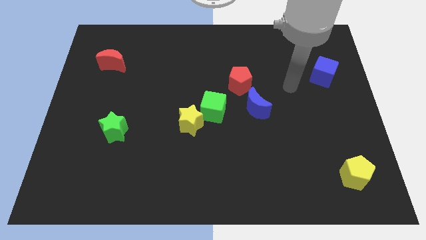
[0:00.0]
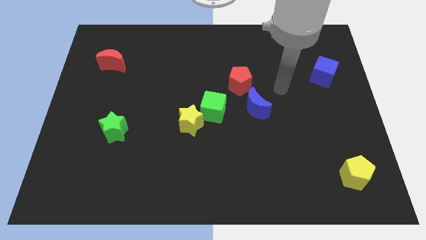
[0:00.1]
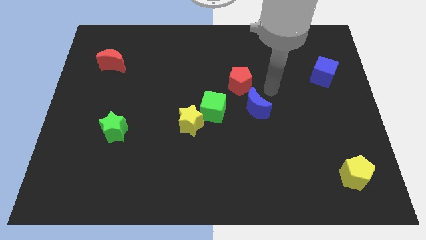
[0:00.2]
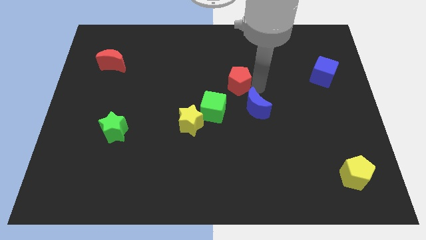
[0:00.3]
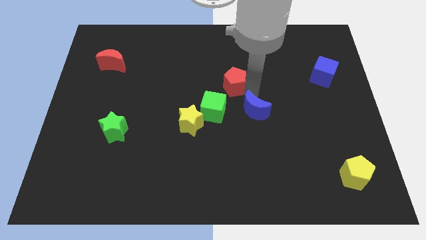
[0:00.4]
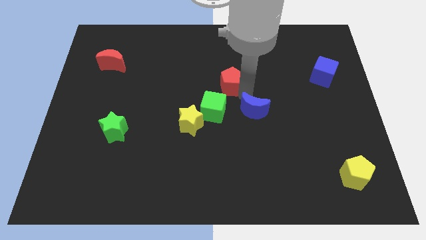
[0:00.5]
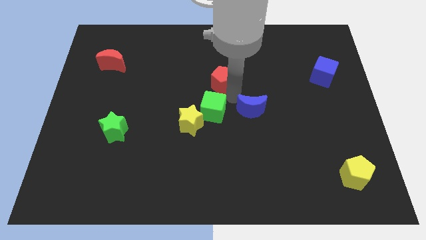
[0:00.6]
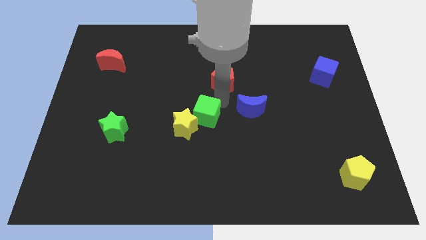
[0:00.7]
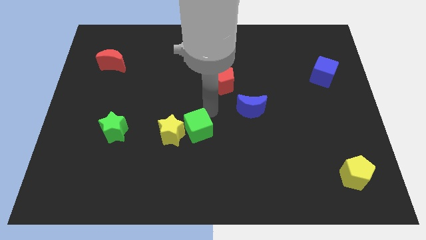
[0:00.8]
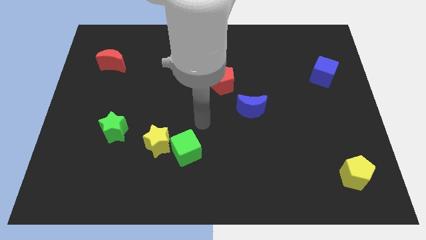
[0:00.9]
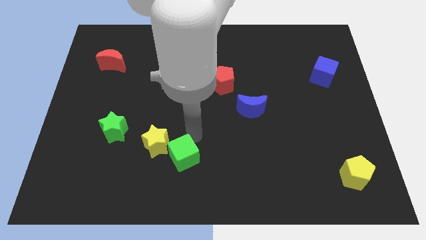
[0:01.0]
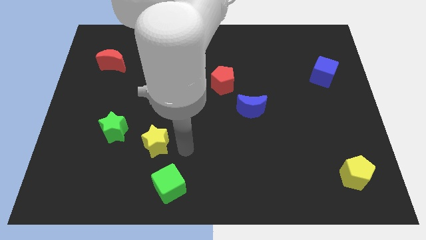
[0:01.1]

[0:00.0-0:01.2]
move the yellow star away from the green cube

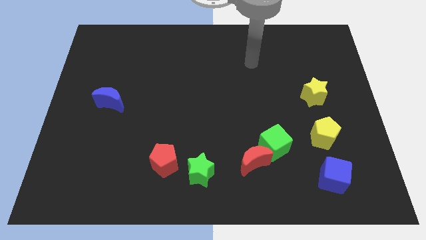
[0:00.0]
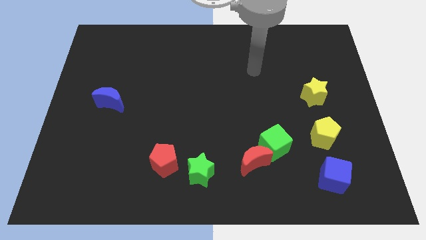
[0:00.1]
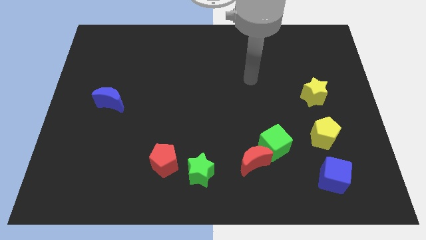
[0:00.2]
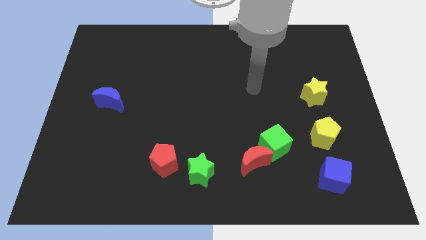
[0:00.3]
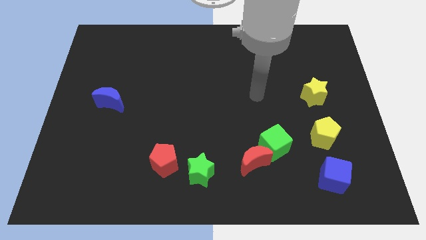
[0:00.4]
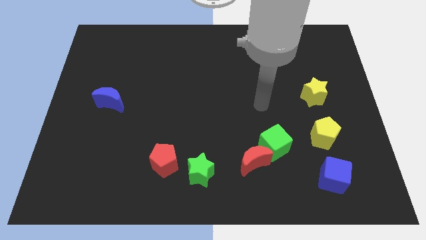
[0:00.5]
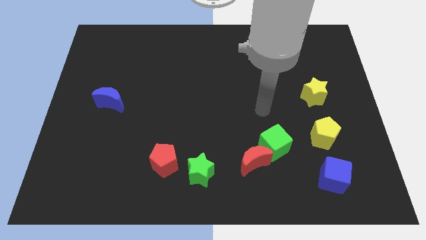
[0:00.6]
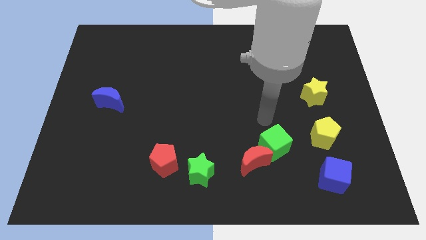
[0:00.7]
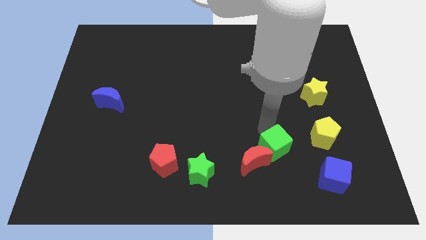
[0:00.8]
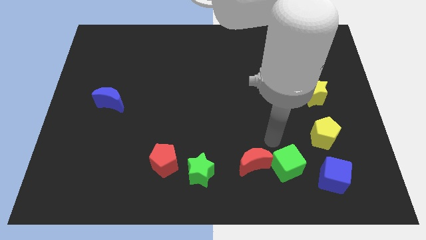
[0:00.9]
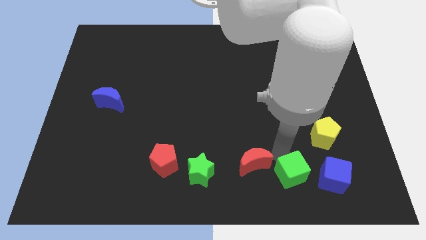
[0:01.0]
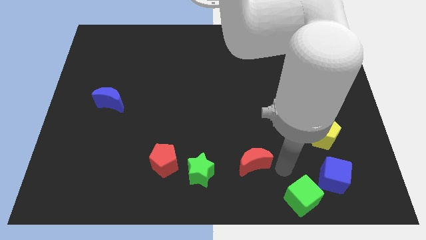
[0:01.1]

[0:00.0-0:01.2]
pull the red moon apart from the green cube

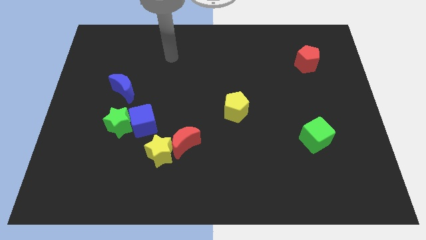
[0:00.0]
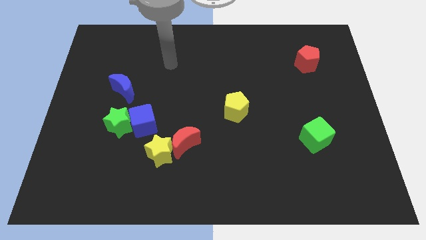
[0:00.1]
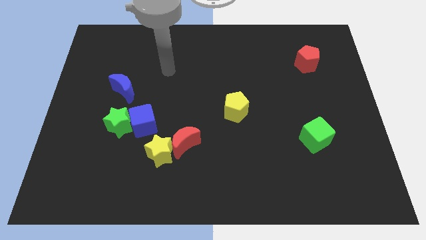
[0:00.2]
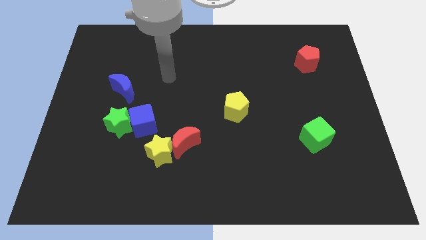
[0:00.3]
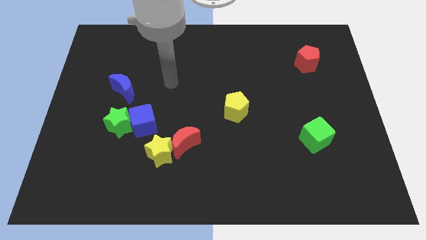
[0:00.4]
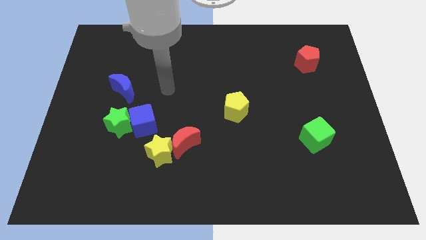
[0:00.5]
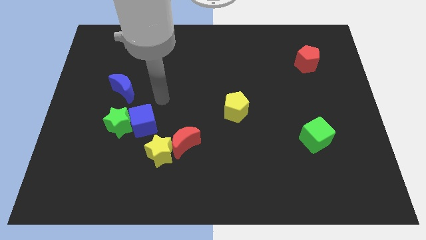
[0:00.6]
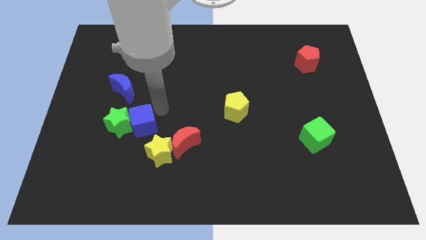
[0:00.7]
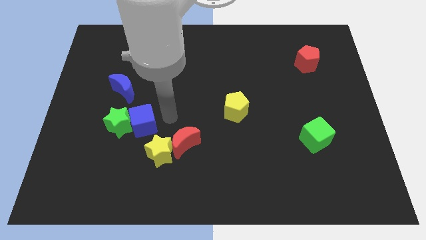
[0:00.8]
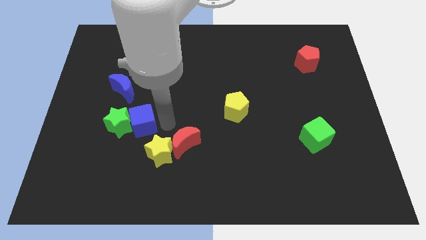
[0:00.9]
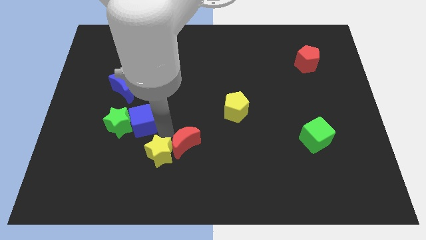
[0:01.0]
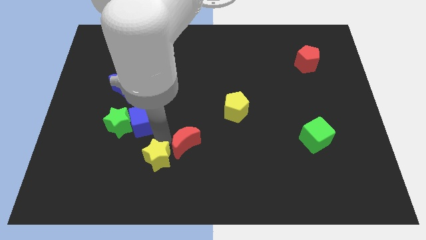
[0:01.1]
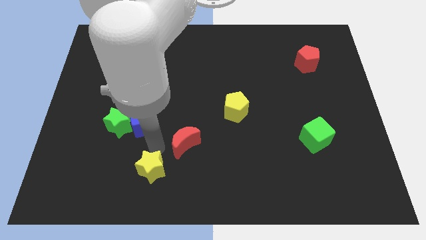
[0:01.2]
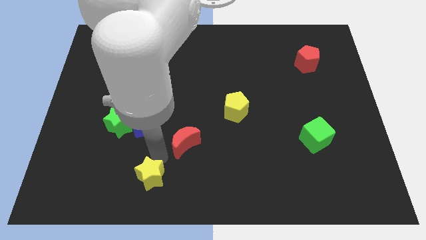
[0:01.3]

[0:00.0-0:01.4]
move the red moon away from the yellow star

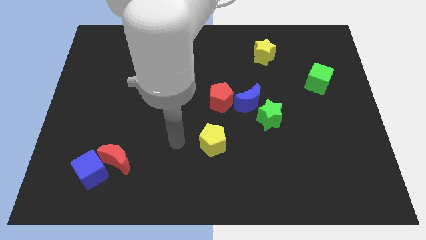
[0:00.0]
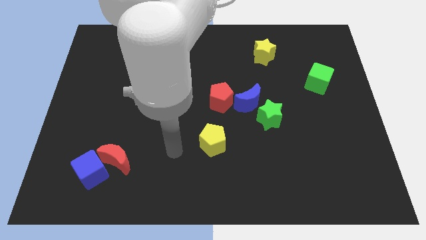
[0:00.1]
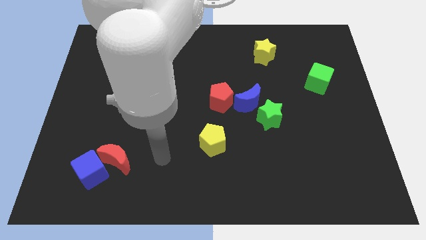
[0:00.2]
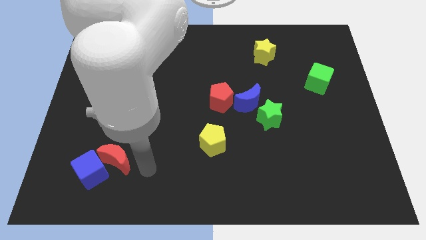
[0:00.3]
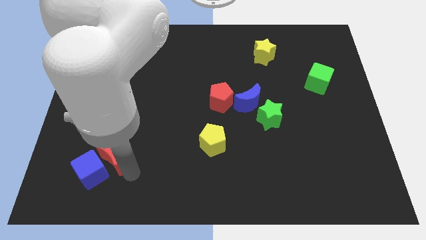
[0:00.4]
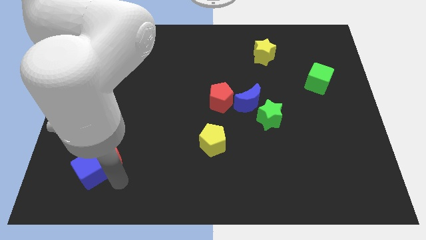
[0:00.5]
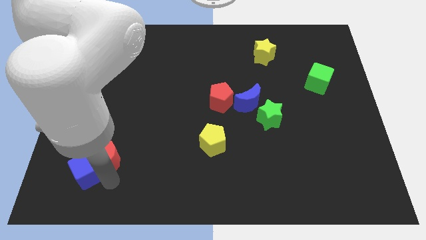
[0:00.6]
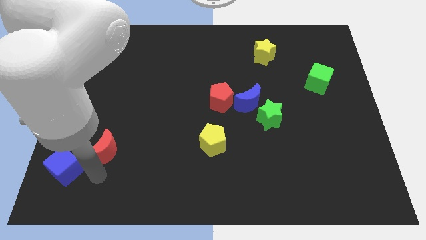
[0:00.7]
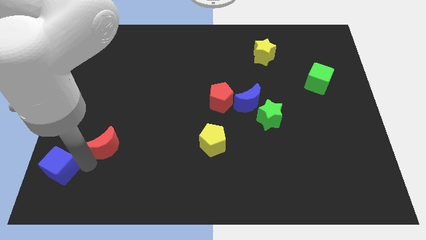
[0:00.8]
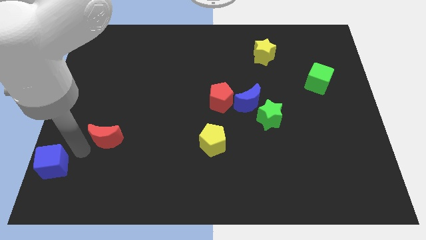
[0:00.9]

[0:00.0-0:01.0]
separate the red moon from the blue cube

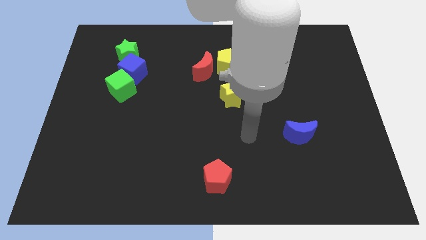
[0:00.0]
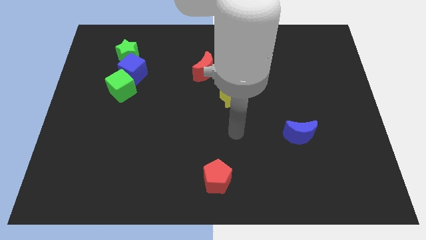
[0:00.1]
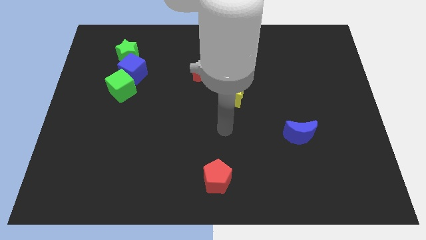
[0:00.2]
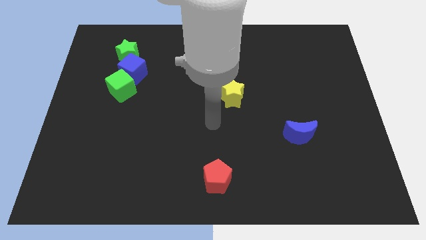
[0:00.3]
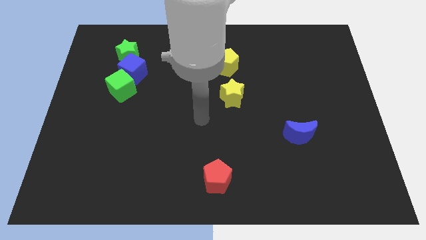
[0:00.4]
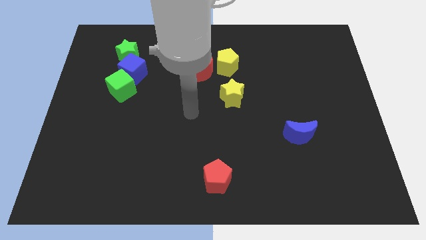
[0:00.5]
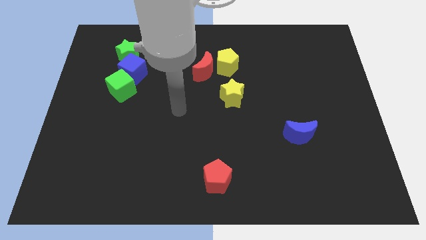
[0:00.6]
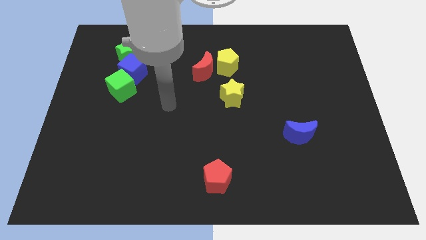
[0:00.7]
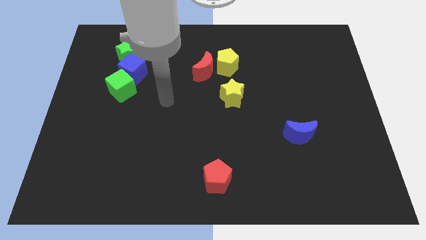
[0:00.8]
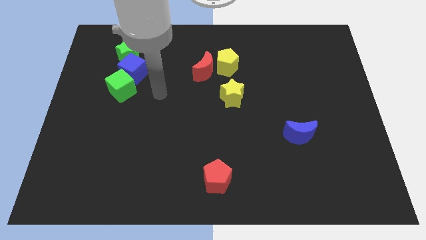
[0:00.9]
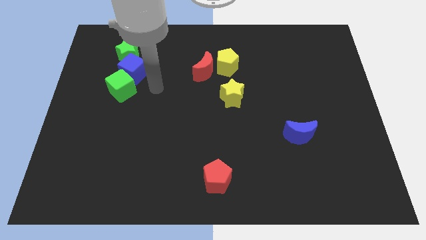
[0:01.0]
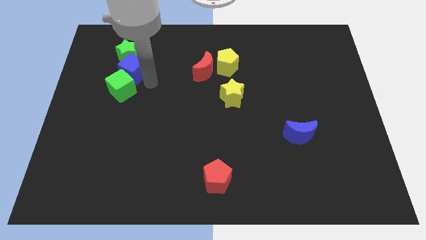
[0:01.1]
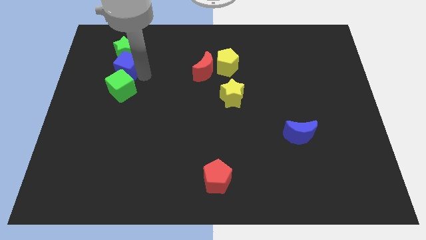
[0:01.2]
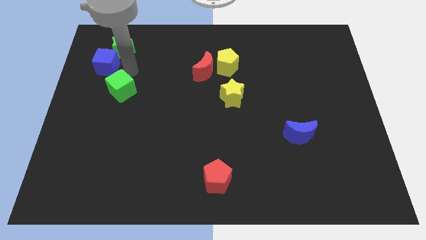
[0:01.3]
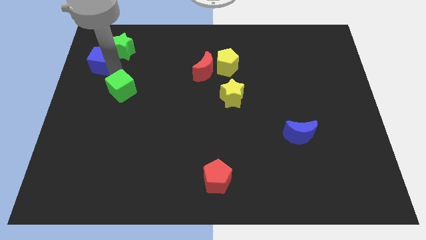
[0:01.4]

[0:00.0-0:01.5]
separate the green cube from the blue cube

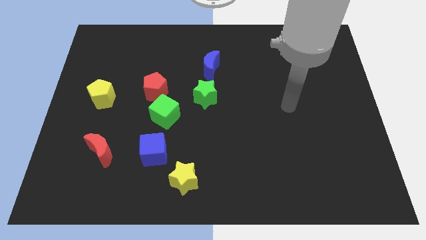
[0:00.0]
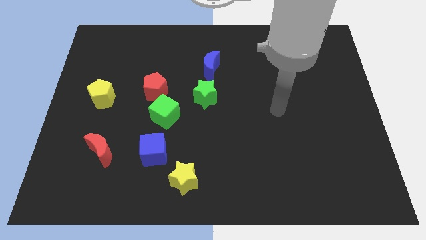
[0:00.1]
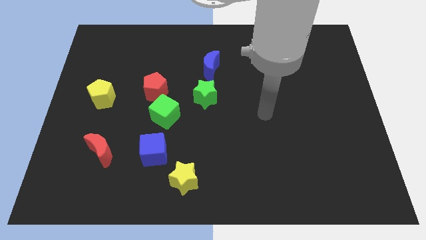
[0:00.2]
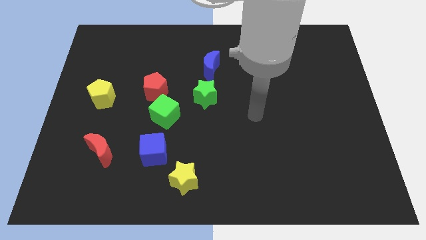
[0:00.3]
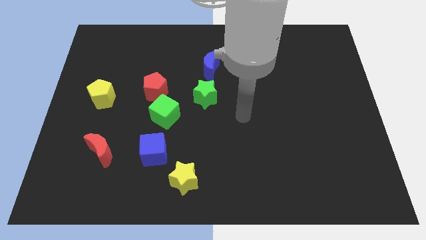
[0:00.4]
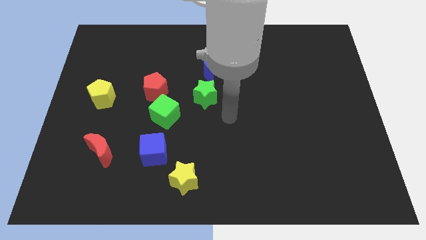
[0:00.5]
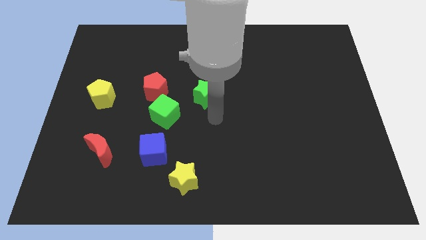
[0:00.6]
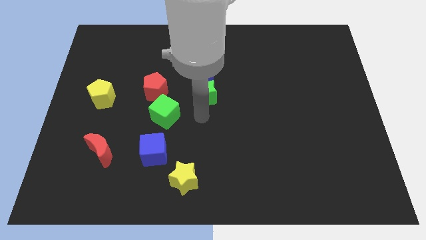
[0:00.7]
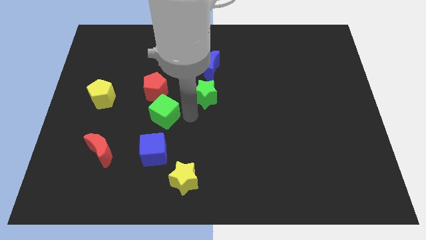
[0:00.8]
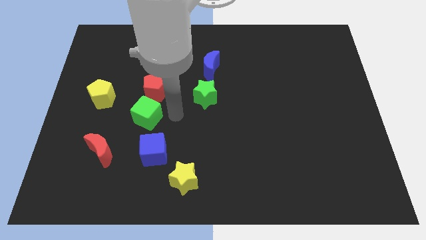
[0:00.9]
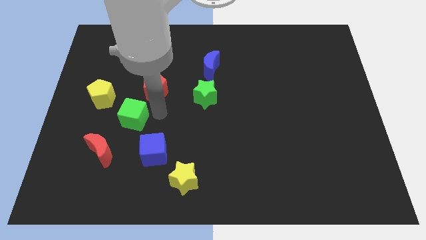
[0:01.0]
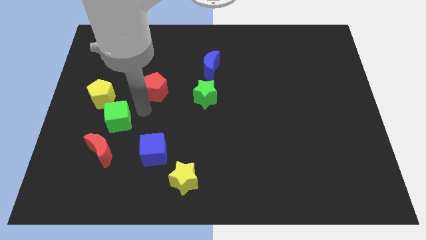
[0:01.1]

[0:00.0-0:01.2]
pull the red pentagon apart from the green cube

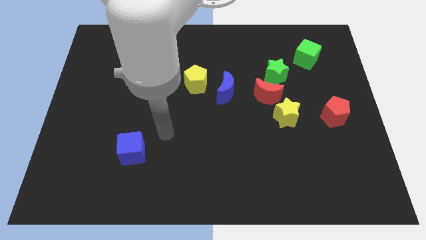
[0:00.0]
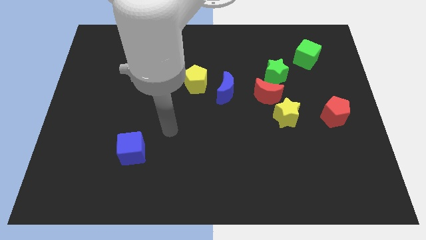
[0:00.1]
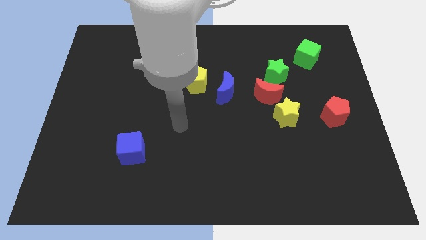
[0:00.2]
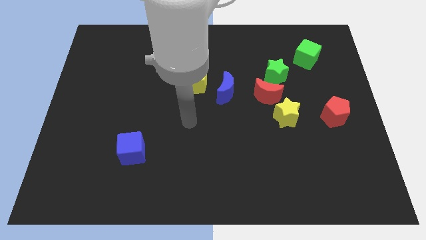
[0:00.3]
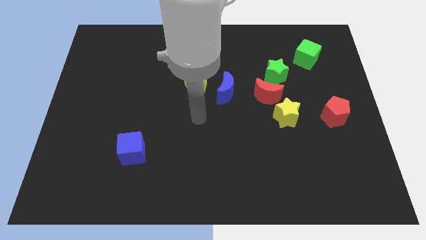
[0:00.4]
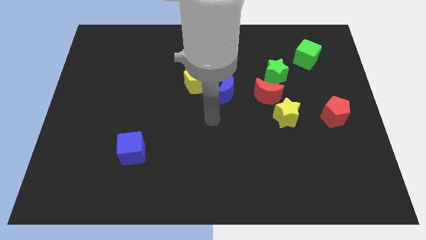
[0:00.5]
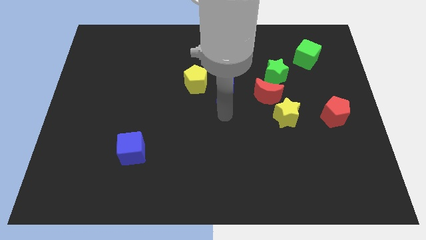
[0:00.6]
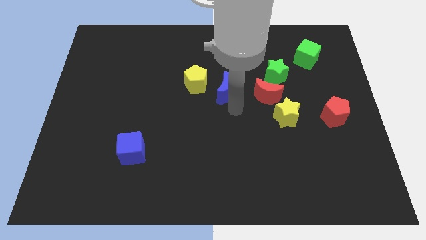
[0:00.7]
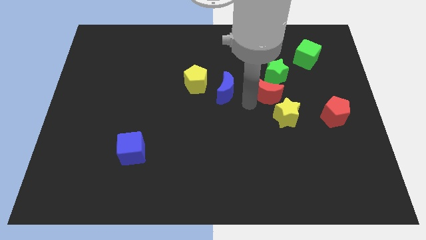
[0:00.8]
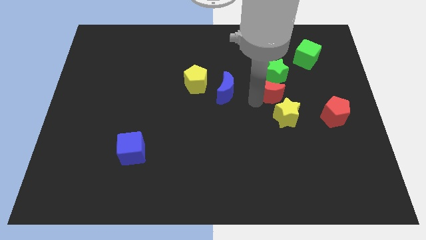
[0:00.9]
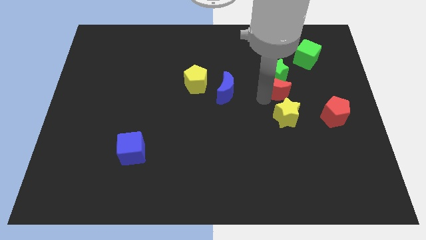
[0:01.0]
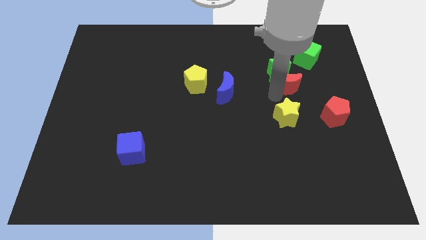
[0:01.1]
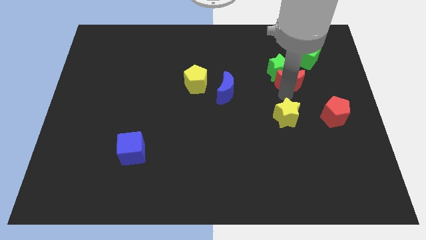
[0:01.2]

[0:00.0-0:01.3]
move the yellow star away from the red moon

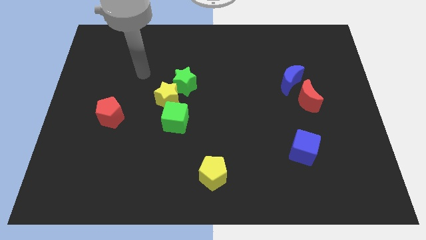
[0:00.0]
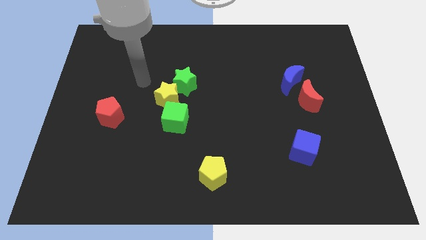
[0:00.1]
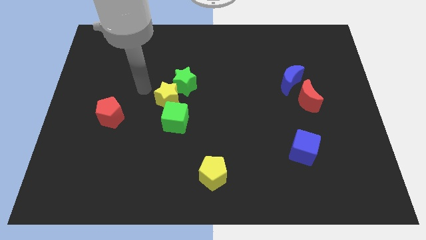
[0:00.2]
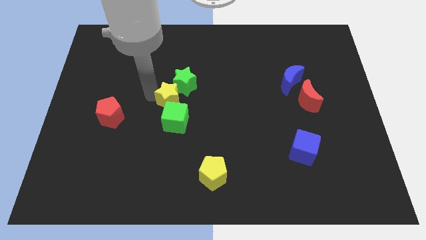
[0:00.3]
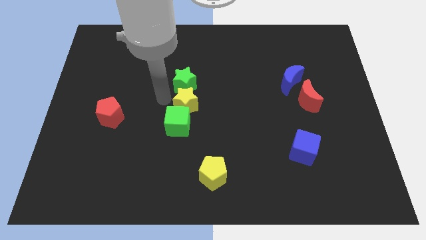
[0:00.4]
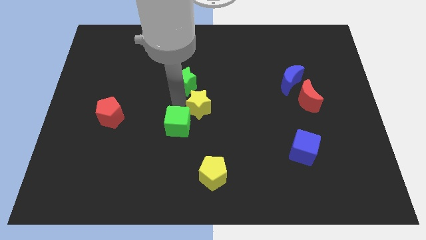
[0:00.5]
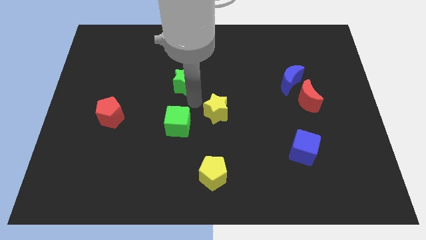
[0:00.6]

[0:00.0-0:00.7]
separate the green star from the yellow star
